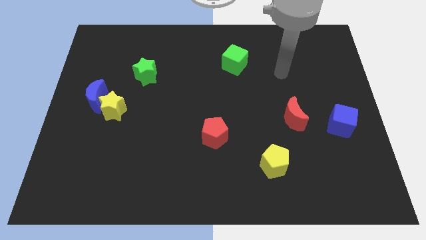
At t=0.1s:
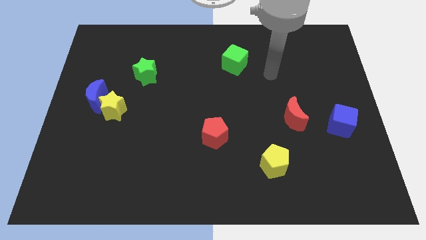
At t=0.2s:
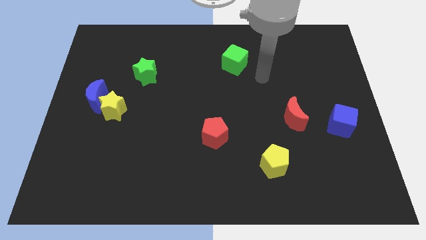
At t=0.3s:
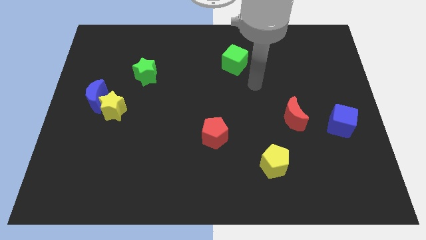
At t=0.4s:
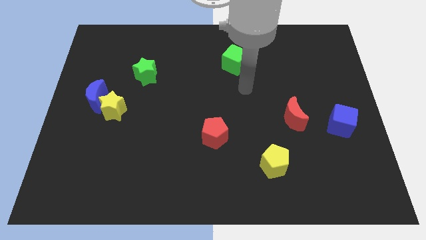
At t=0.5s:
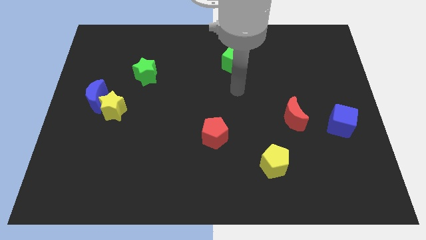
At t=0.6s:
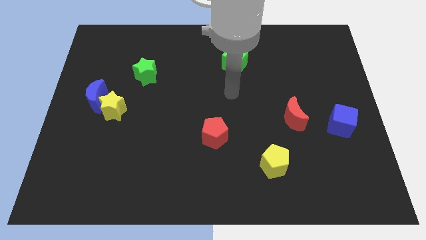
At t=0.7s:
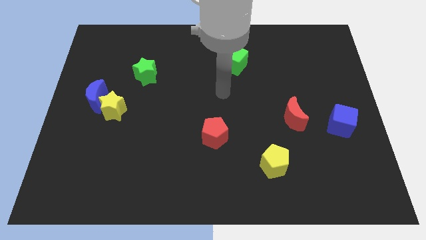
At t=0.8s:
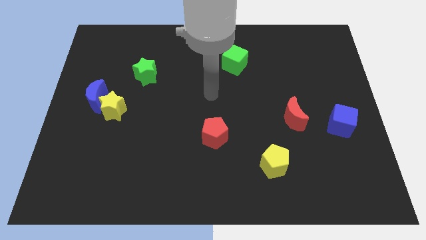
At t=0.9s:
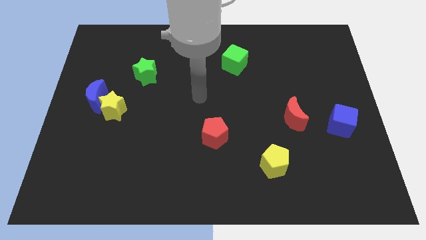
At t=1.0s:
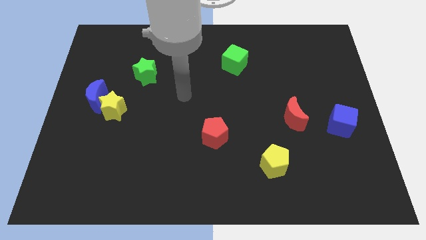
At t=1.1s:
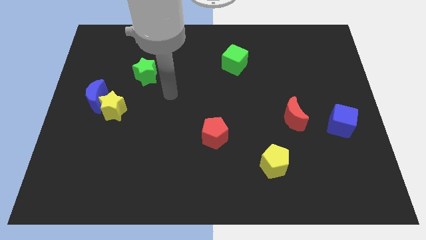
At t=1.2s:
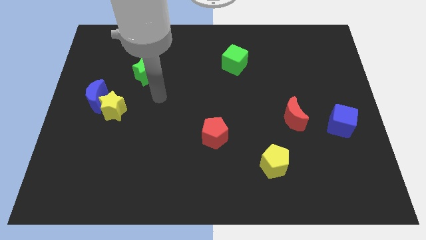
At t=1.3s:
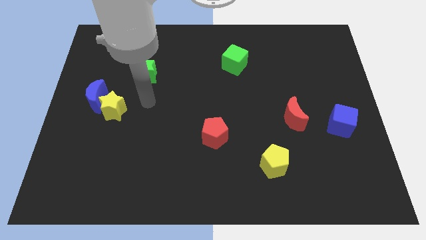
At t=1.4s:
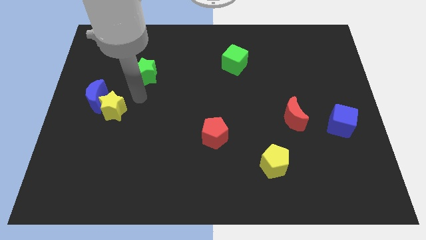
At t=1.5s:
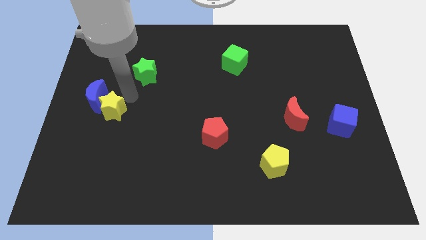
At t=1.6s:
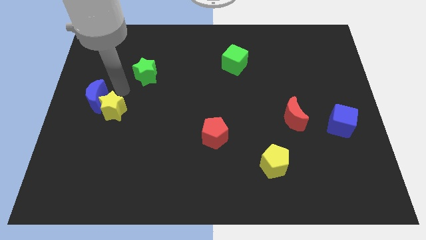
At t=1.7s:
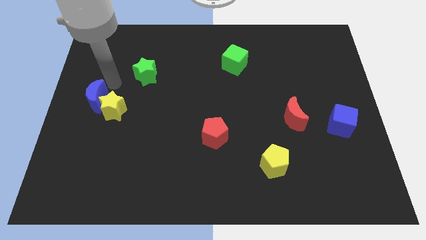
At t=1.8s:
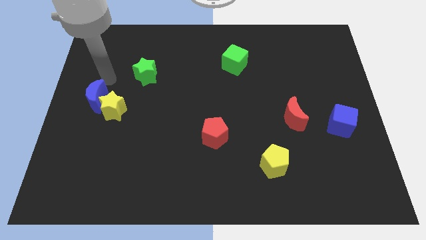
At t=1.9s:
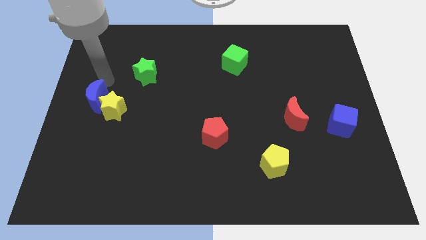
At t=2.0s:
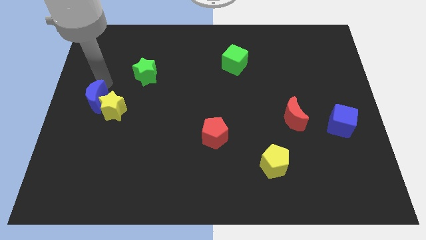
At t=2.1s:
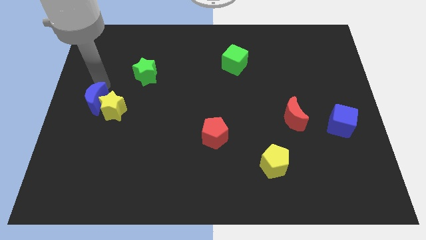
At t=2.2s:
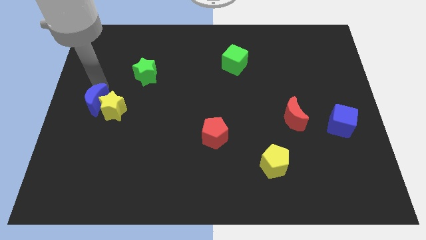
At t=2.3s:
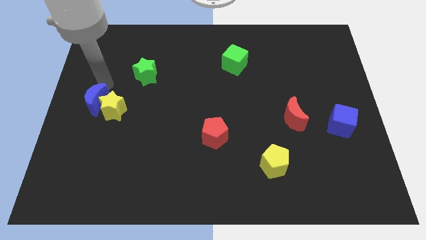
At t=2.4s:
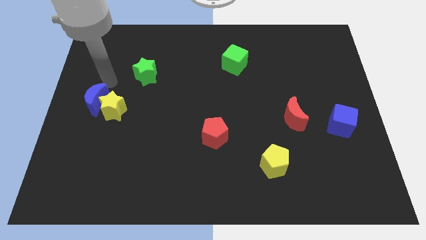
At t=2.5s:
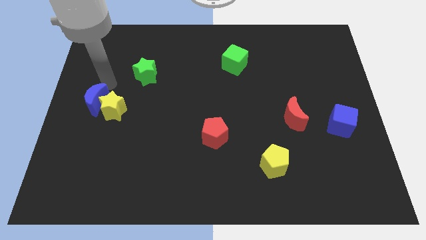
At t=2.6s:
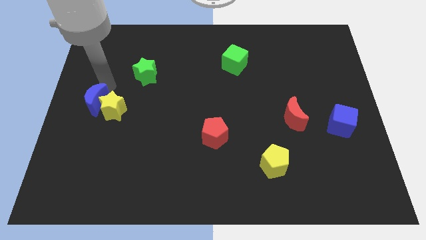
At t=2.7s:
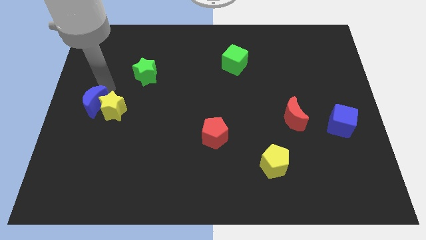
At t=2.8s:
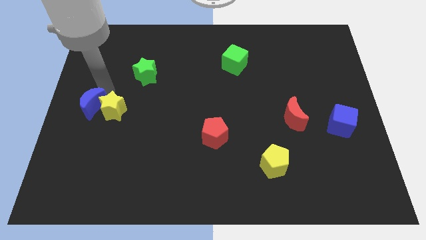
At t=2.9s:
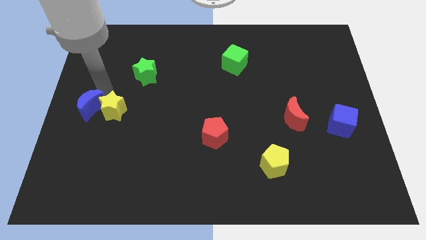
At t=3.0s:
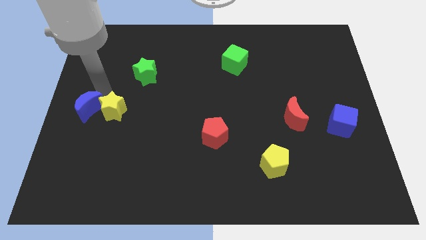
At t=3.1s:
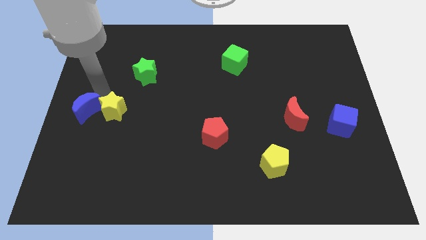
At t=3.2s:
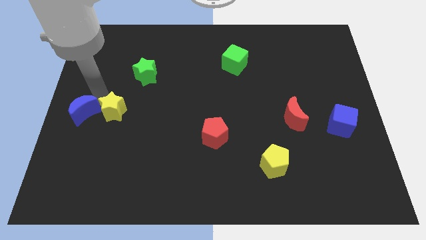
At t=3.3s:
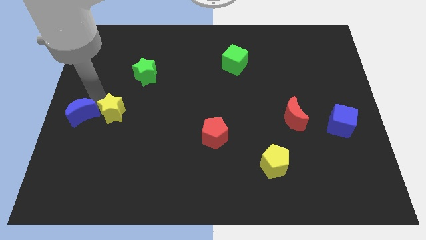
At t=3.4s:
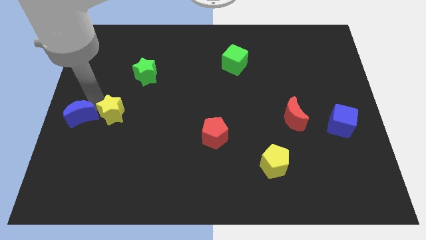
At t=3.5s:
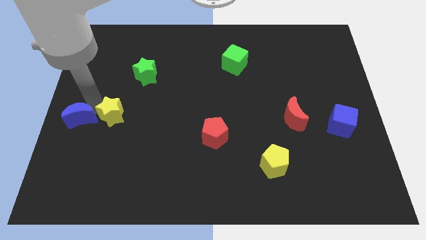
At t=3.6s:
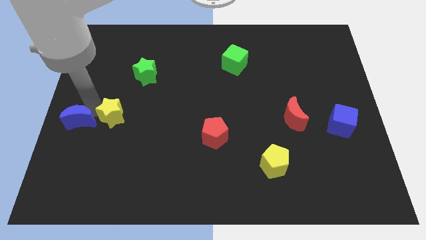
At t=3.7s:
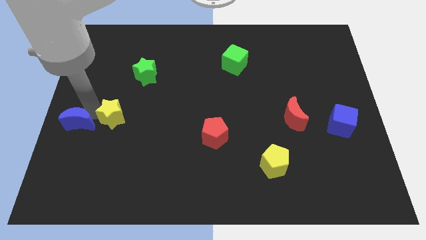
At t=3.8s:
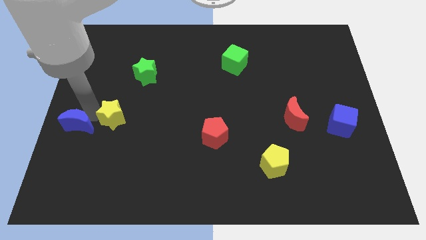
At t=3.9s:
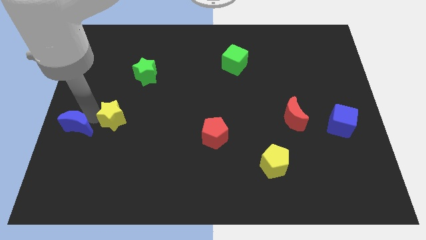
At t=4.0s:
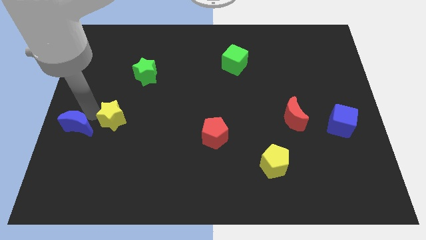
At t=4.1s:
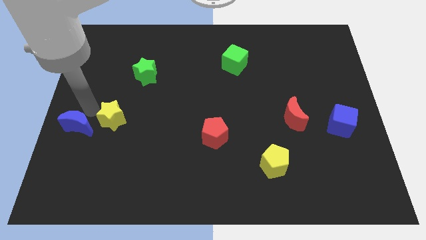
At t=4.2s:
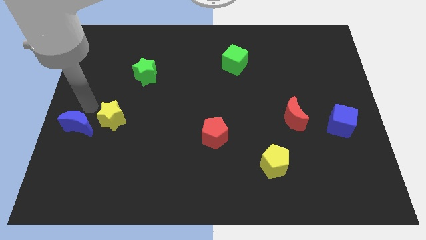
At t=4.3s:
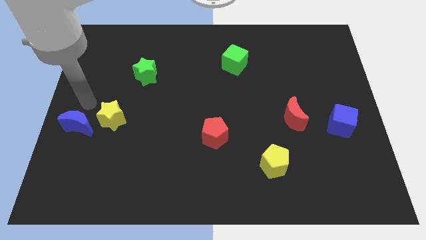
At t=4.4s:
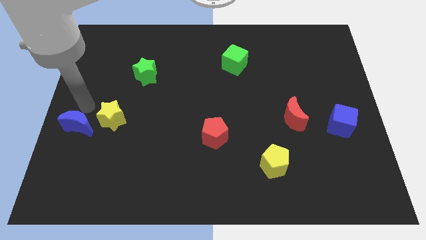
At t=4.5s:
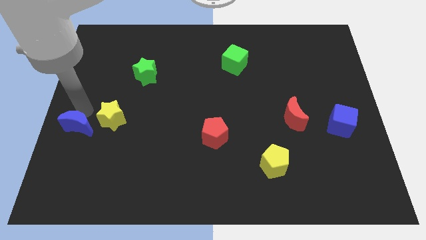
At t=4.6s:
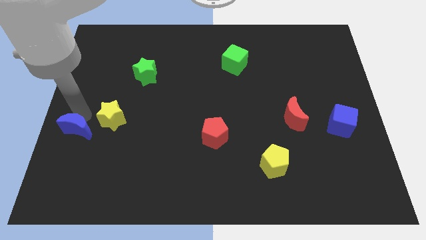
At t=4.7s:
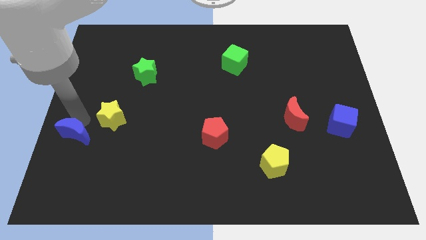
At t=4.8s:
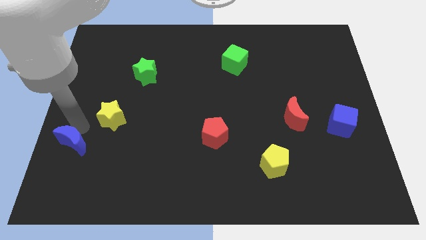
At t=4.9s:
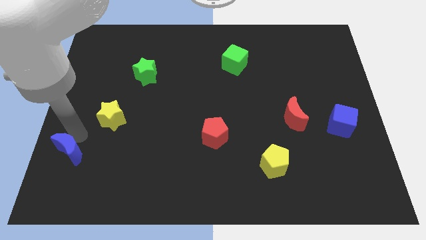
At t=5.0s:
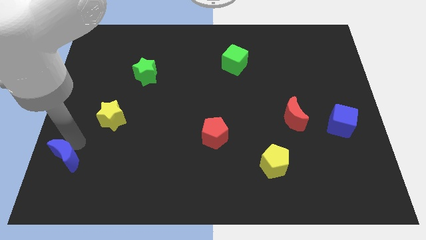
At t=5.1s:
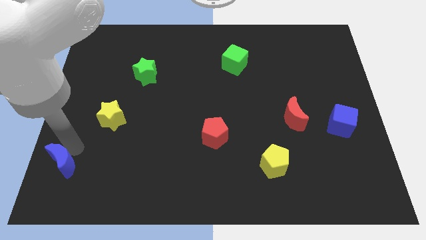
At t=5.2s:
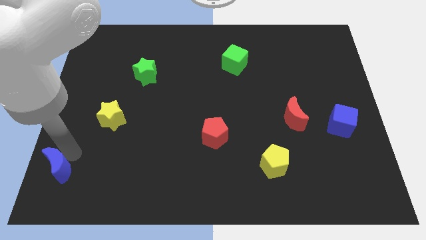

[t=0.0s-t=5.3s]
push the blue moon to the bottom left corner

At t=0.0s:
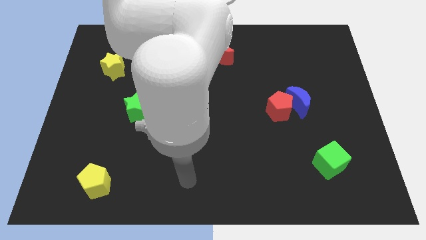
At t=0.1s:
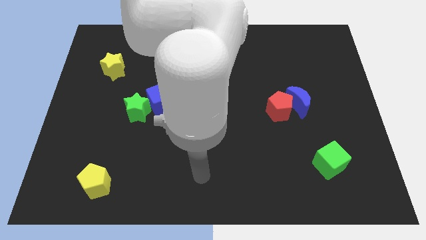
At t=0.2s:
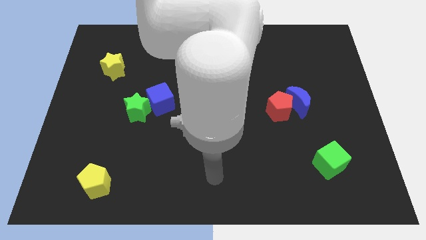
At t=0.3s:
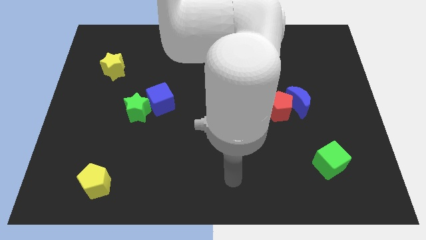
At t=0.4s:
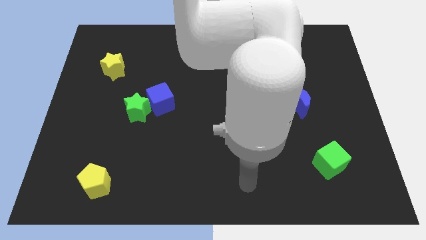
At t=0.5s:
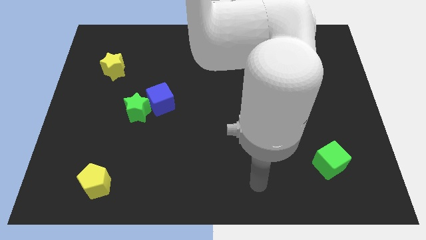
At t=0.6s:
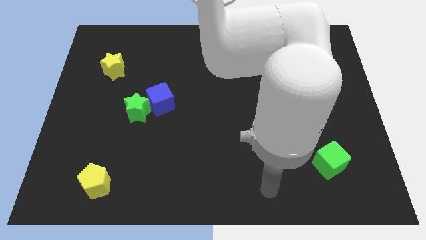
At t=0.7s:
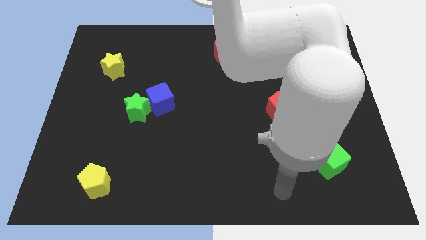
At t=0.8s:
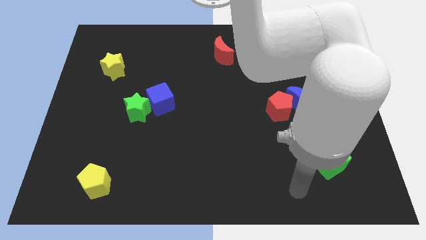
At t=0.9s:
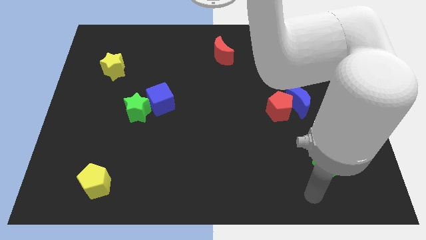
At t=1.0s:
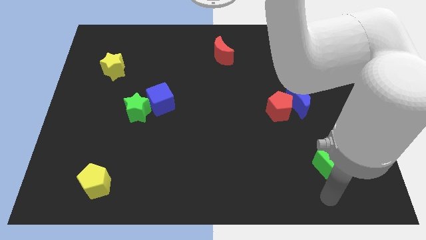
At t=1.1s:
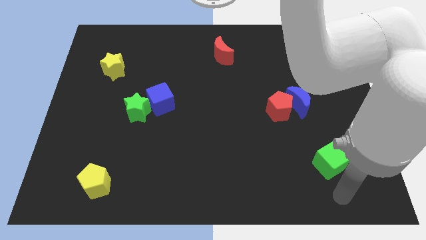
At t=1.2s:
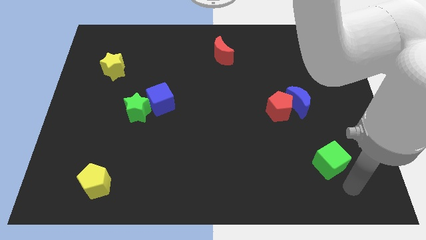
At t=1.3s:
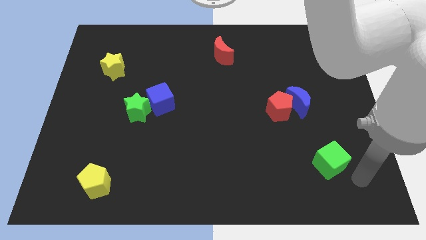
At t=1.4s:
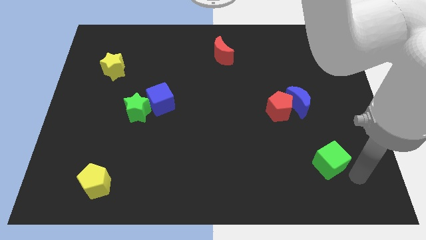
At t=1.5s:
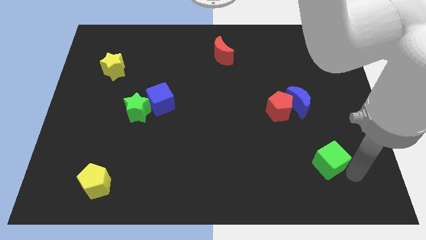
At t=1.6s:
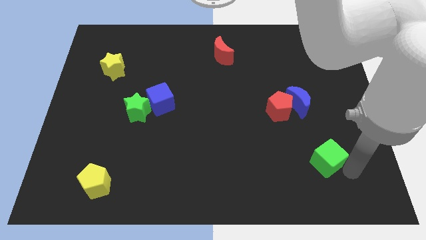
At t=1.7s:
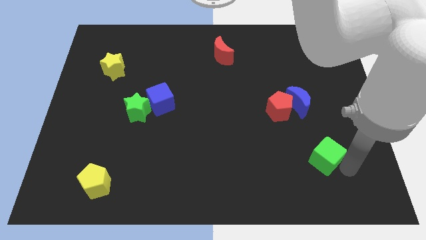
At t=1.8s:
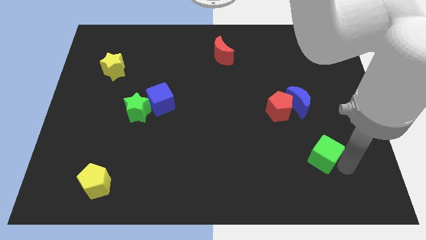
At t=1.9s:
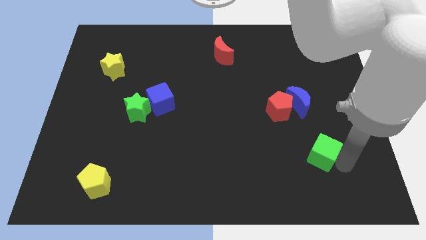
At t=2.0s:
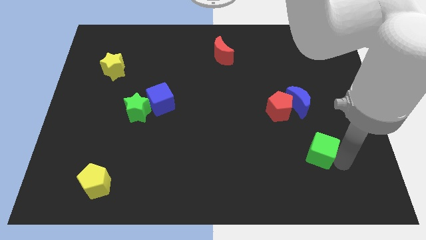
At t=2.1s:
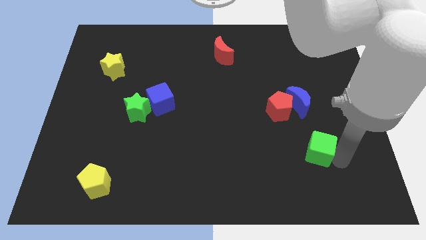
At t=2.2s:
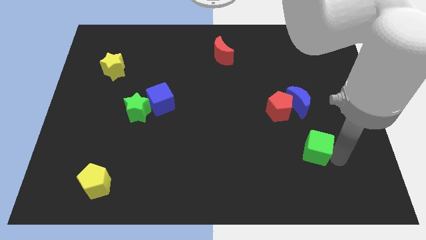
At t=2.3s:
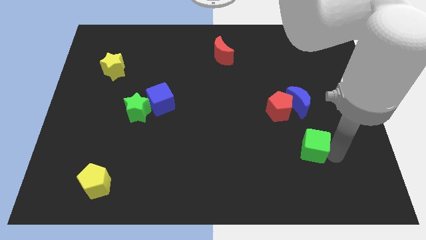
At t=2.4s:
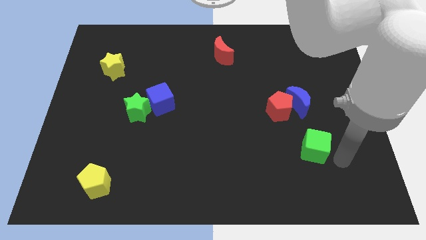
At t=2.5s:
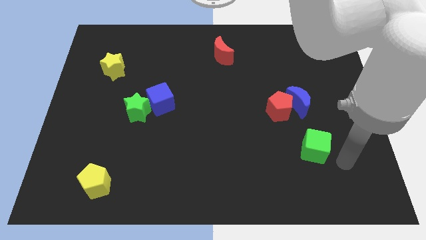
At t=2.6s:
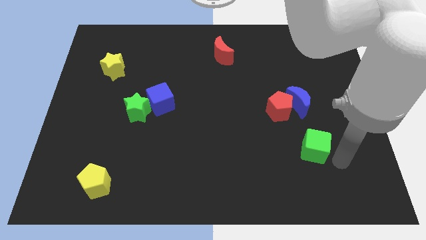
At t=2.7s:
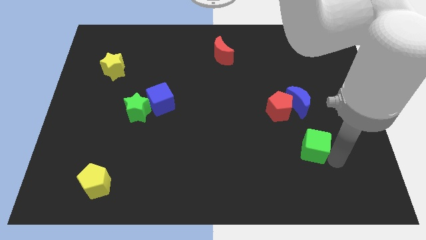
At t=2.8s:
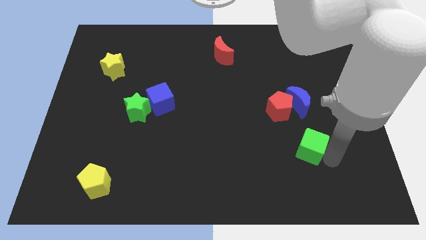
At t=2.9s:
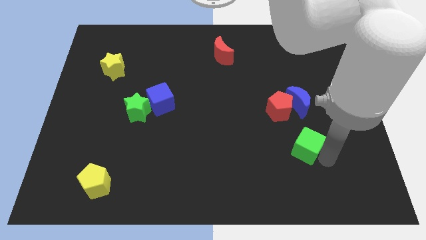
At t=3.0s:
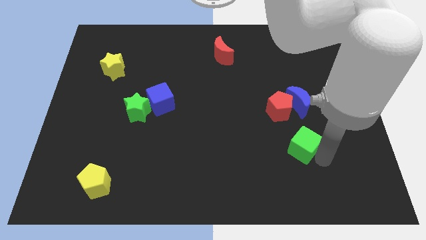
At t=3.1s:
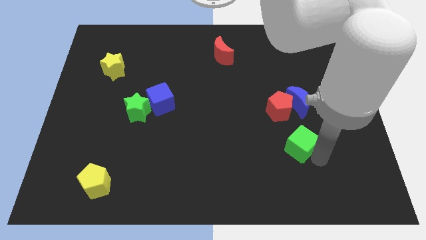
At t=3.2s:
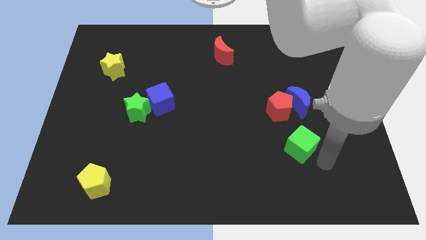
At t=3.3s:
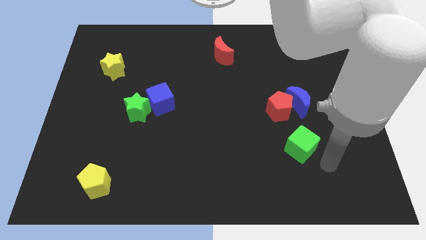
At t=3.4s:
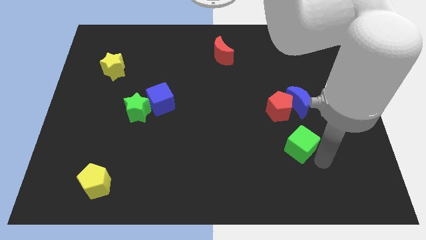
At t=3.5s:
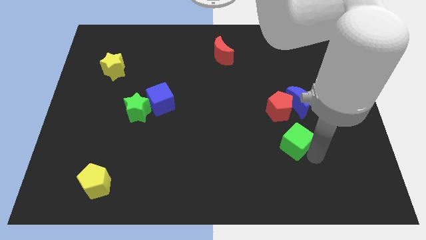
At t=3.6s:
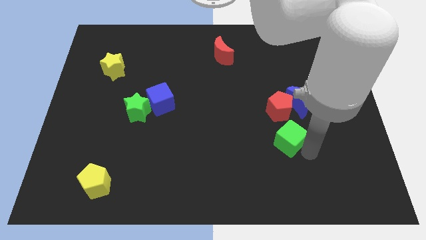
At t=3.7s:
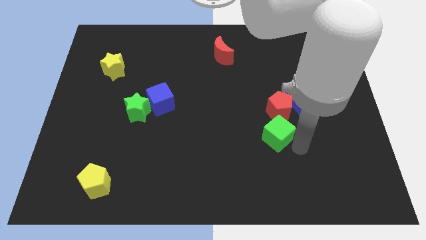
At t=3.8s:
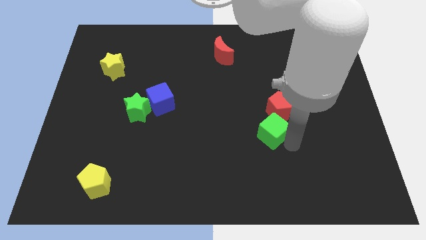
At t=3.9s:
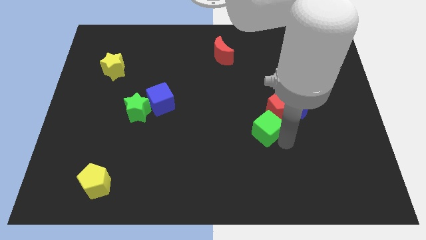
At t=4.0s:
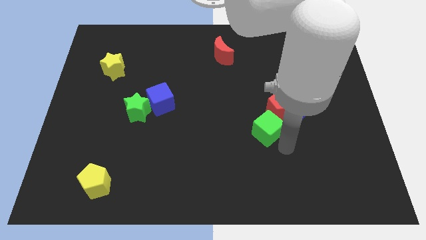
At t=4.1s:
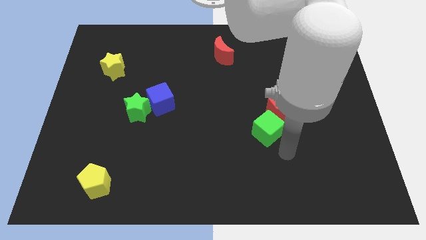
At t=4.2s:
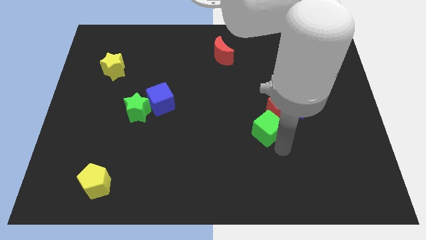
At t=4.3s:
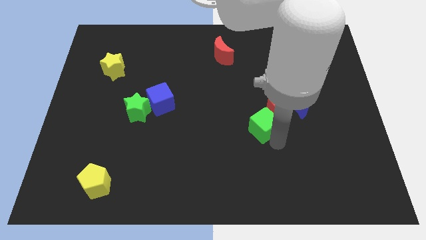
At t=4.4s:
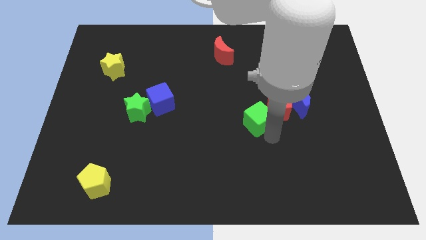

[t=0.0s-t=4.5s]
push the green cube to the center of the board
